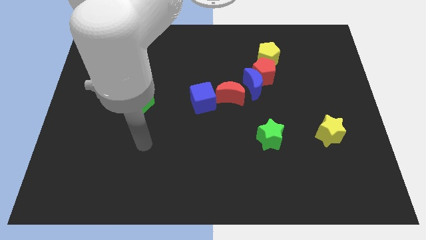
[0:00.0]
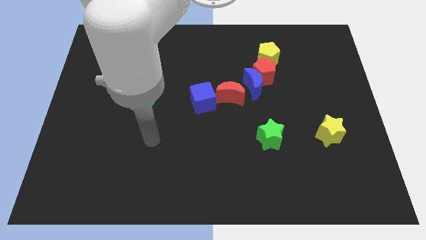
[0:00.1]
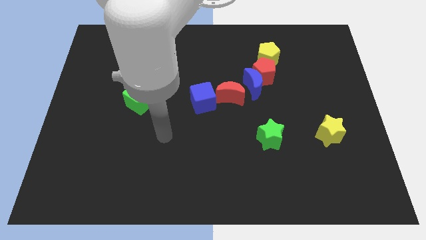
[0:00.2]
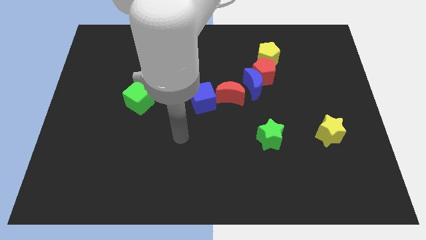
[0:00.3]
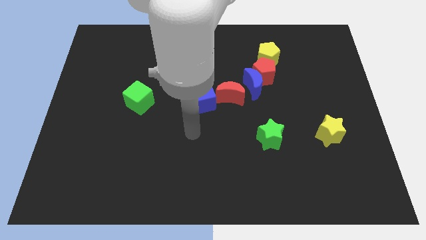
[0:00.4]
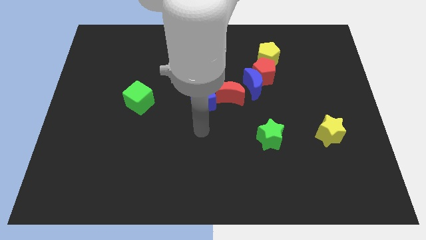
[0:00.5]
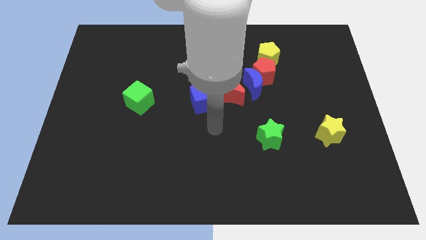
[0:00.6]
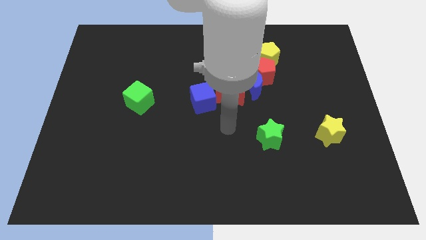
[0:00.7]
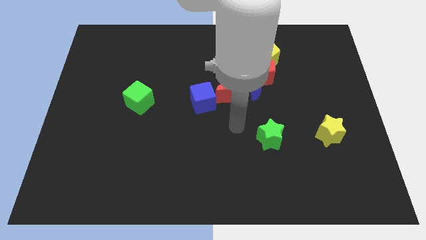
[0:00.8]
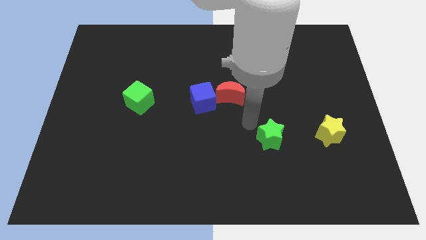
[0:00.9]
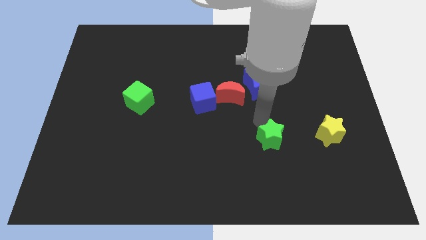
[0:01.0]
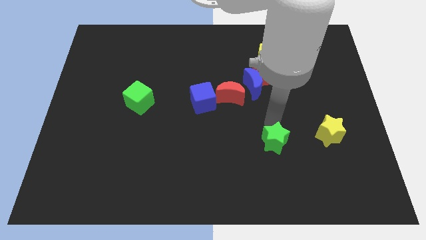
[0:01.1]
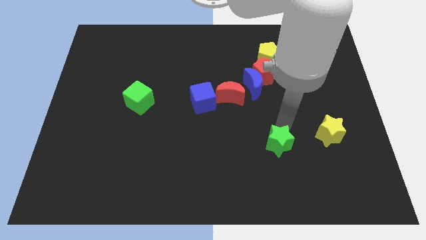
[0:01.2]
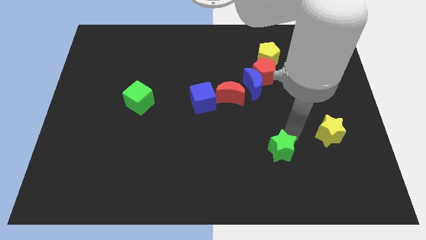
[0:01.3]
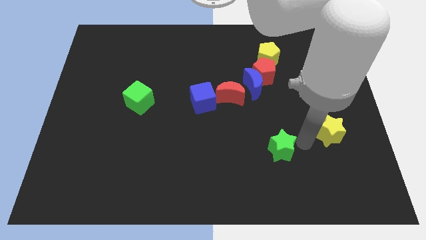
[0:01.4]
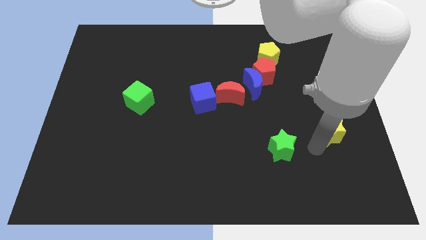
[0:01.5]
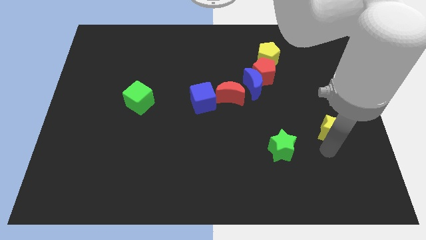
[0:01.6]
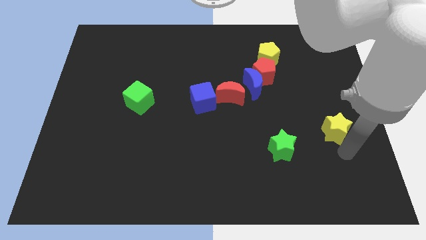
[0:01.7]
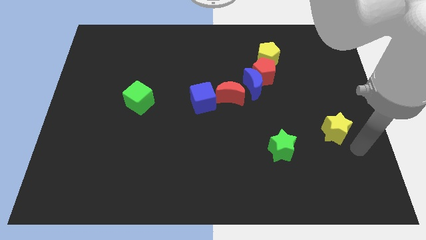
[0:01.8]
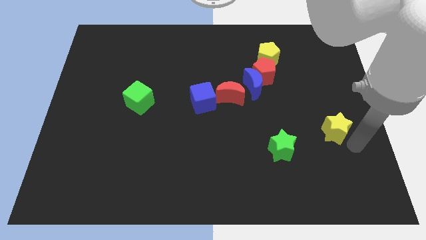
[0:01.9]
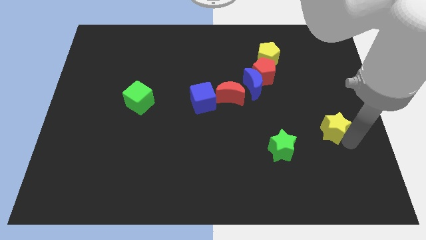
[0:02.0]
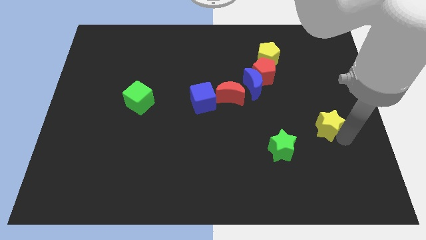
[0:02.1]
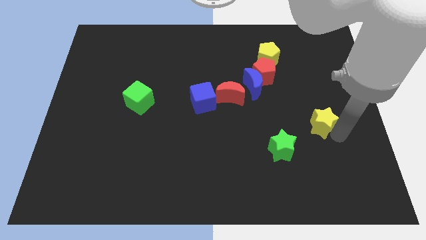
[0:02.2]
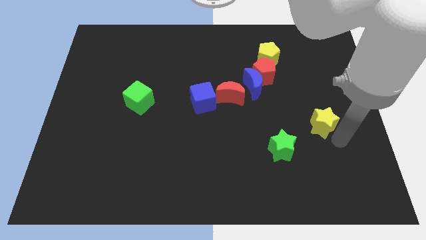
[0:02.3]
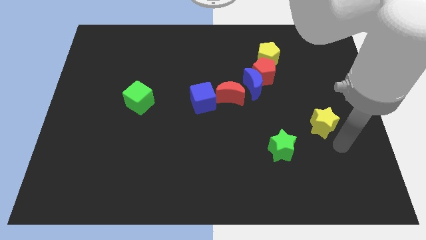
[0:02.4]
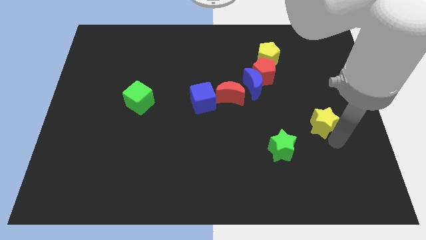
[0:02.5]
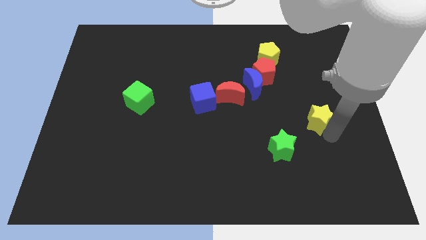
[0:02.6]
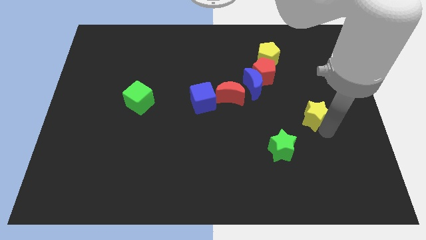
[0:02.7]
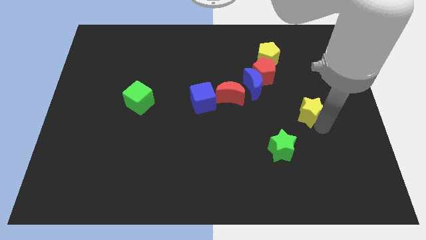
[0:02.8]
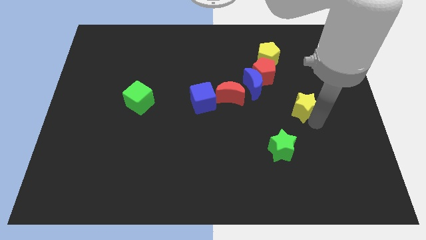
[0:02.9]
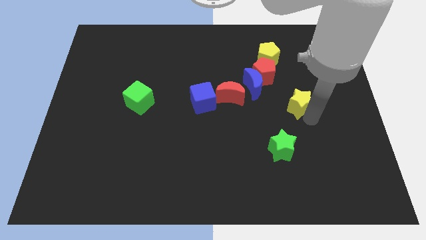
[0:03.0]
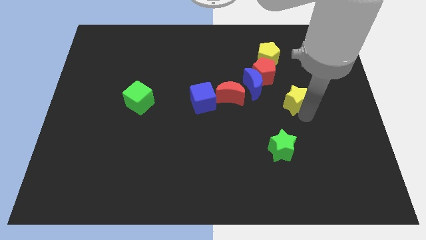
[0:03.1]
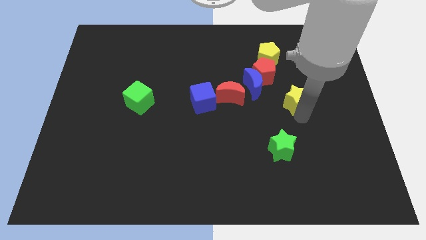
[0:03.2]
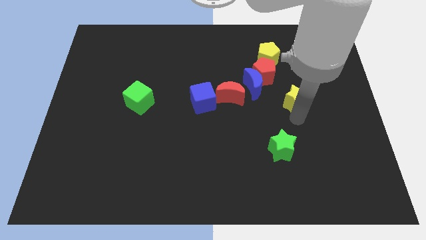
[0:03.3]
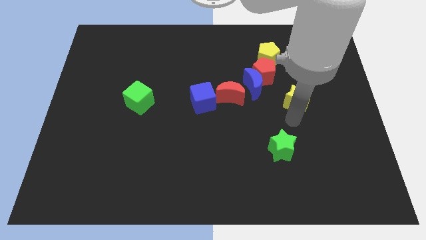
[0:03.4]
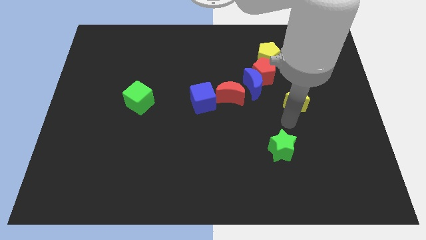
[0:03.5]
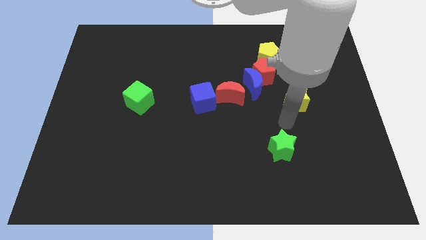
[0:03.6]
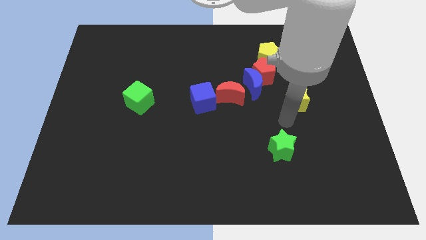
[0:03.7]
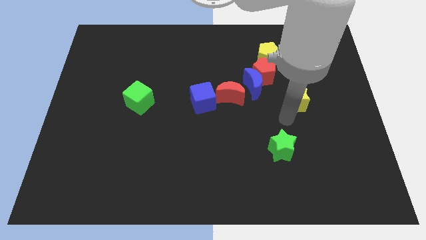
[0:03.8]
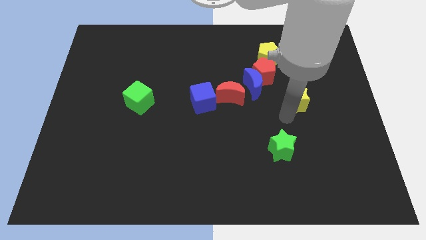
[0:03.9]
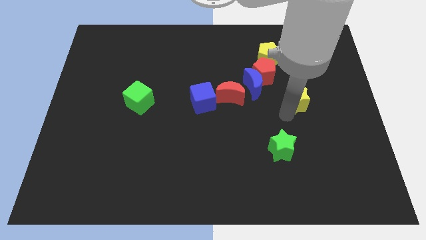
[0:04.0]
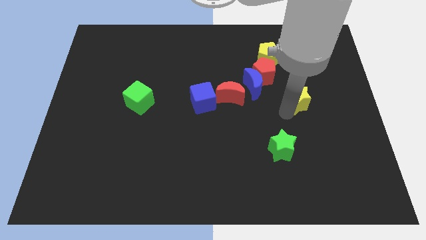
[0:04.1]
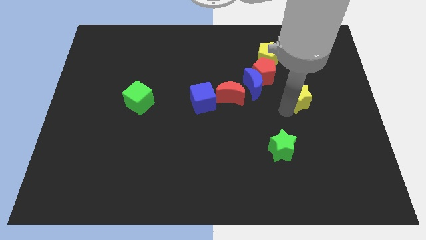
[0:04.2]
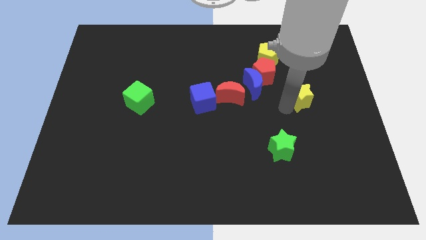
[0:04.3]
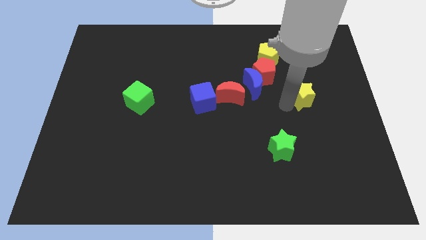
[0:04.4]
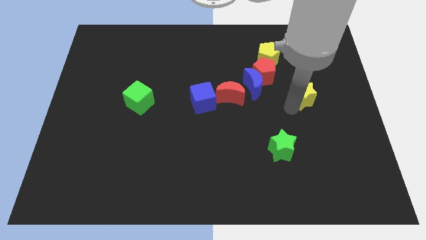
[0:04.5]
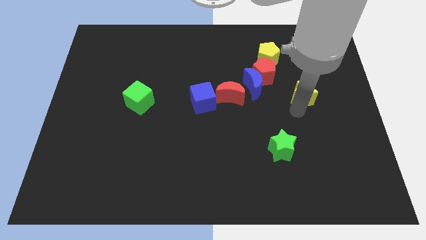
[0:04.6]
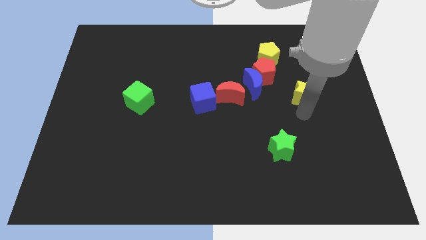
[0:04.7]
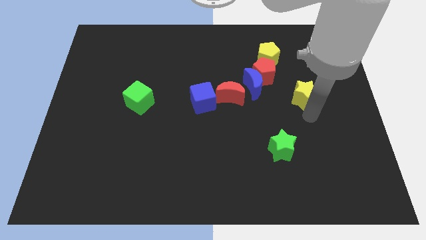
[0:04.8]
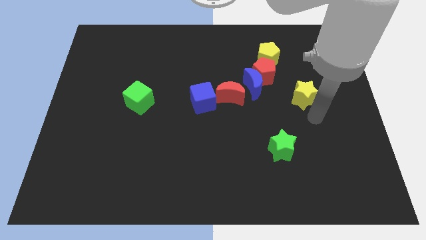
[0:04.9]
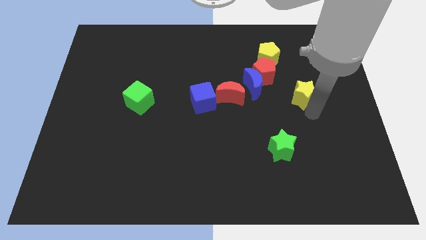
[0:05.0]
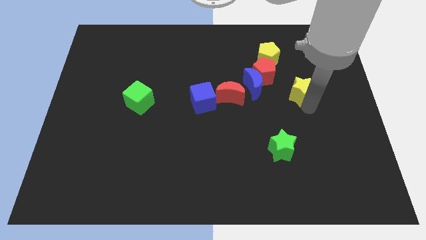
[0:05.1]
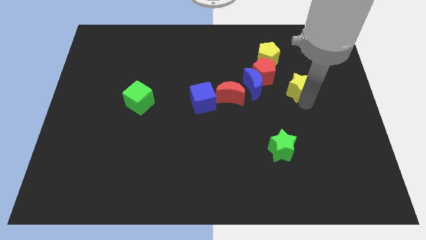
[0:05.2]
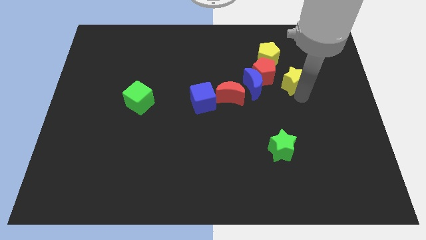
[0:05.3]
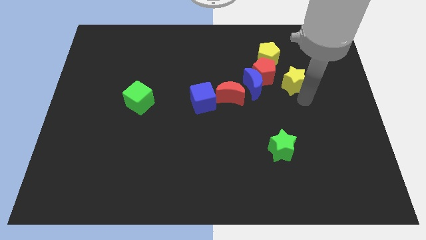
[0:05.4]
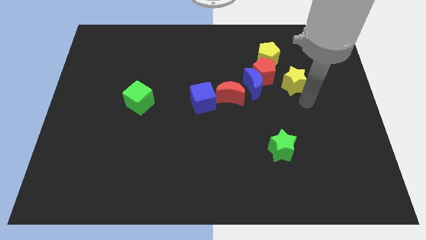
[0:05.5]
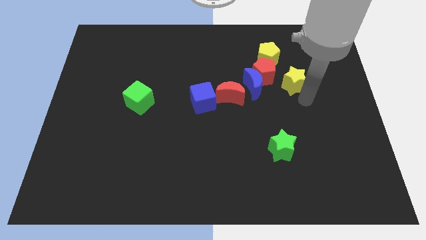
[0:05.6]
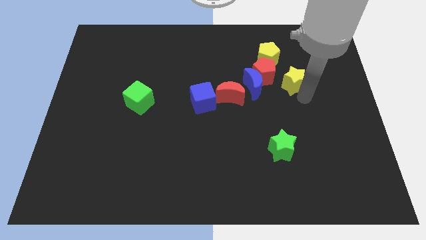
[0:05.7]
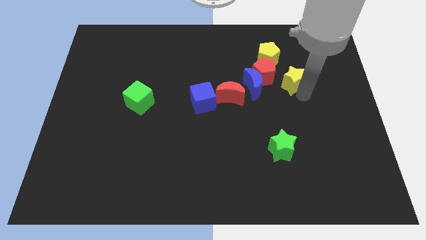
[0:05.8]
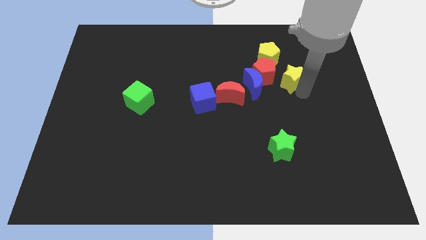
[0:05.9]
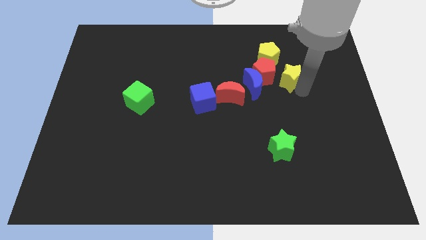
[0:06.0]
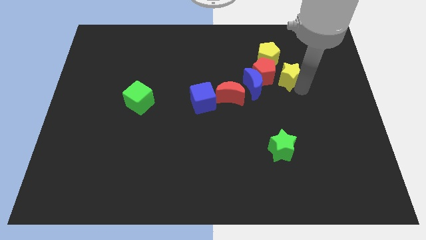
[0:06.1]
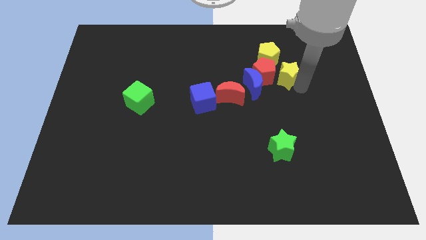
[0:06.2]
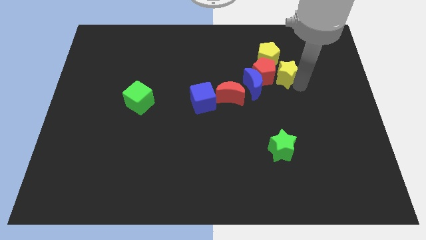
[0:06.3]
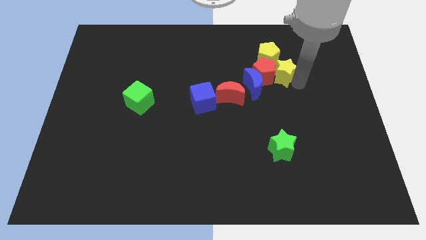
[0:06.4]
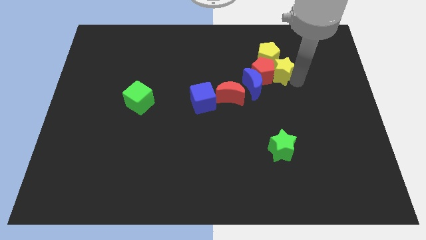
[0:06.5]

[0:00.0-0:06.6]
slide the yellow star towards the yellow pentagon

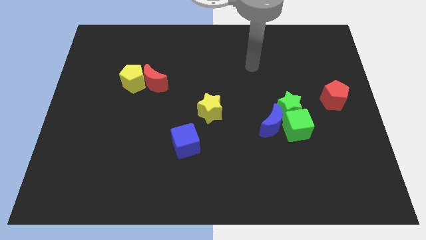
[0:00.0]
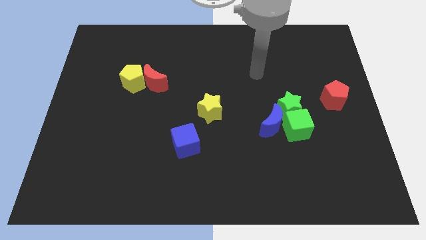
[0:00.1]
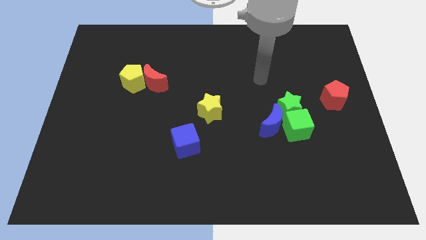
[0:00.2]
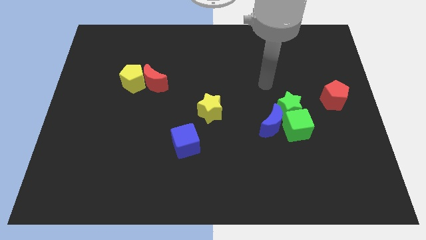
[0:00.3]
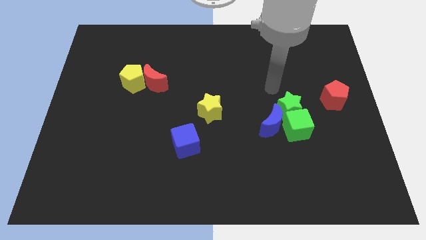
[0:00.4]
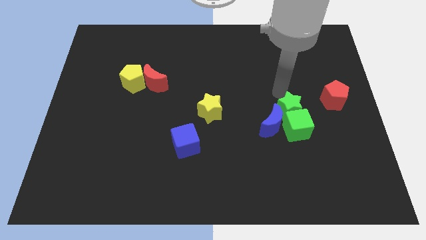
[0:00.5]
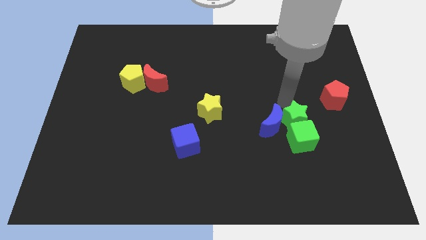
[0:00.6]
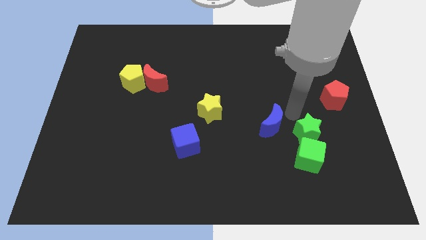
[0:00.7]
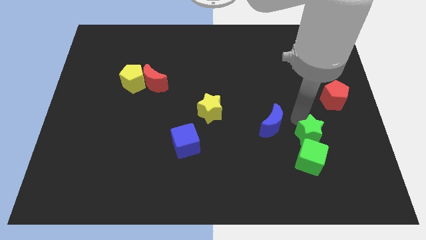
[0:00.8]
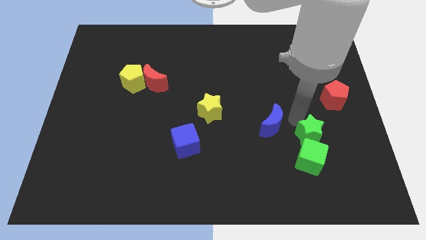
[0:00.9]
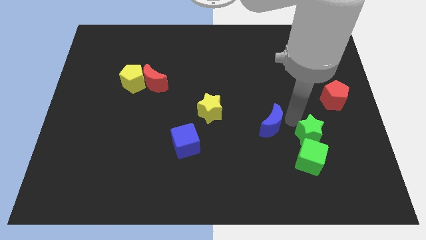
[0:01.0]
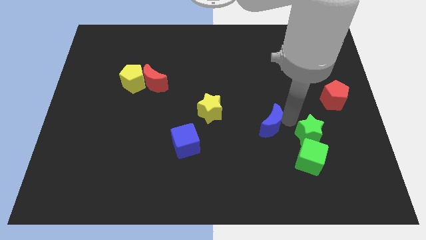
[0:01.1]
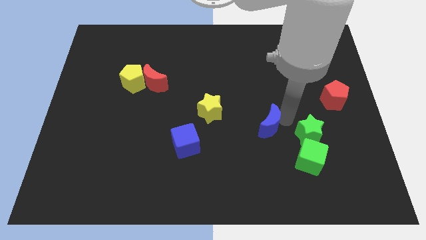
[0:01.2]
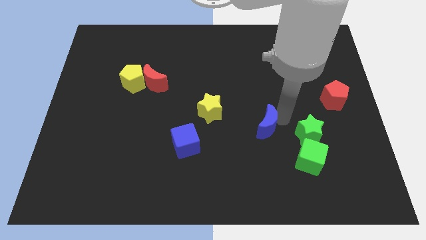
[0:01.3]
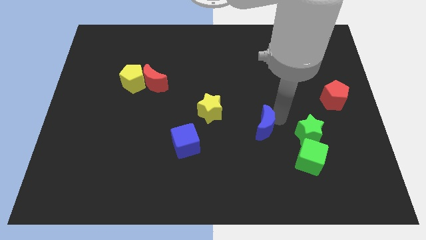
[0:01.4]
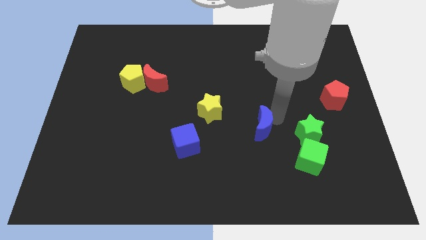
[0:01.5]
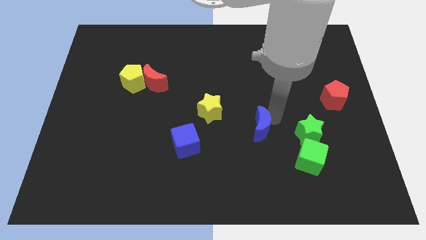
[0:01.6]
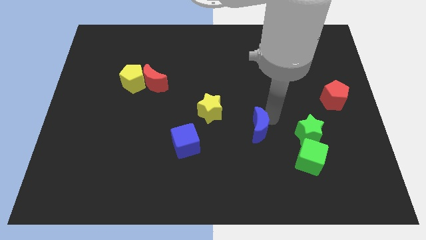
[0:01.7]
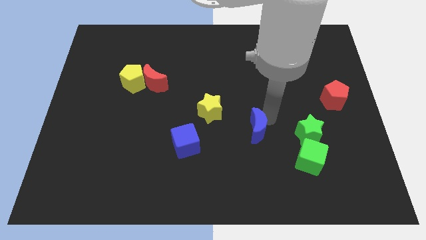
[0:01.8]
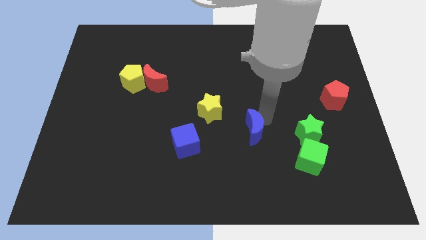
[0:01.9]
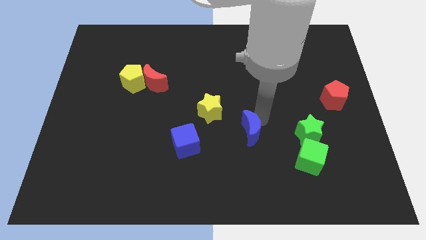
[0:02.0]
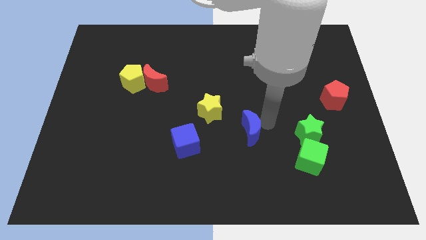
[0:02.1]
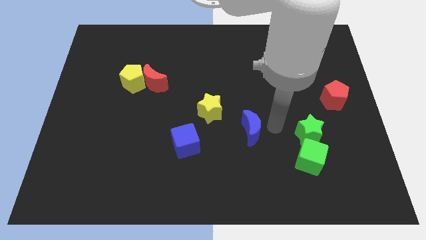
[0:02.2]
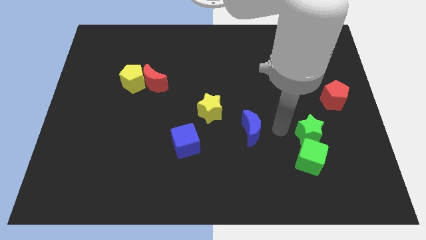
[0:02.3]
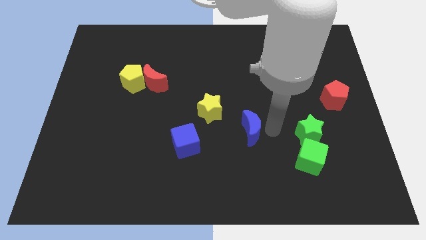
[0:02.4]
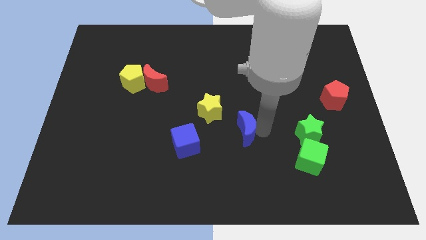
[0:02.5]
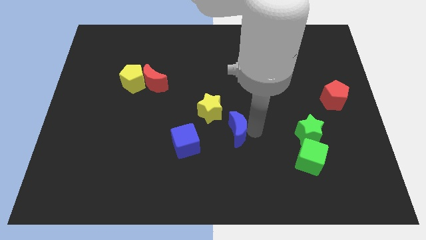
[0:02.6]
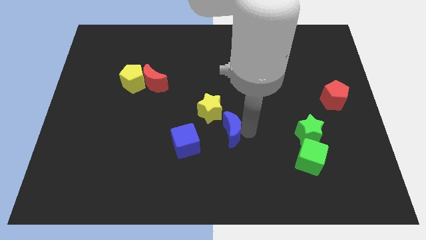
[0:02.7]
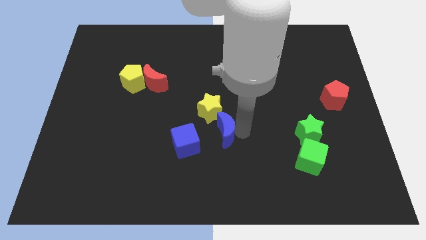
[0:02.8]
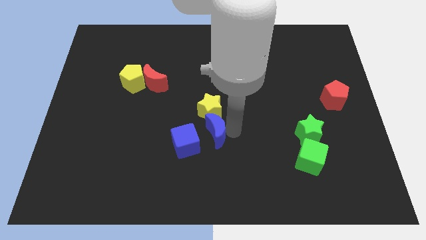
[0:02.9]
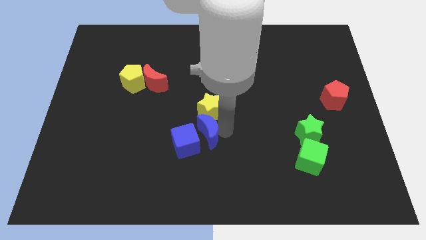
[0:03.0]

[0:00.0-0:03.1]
put the blue moon to the blue cube
